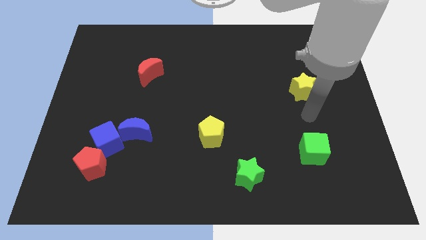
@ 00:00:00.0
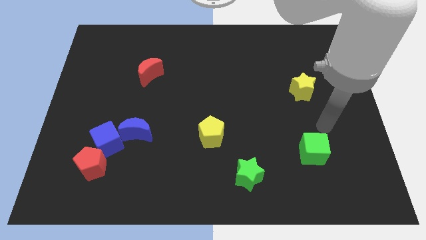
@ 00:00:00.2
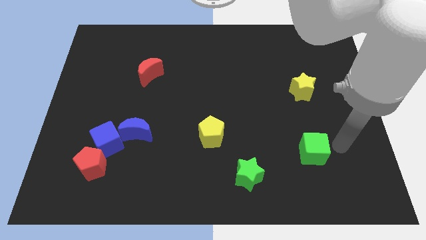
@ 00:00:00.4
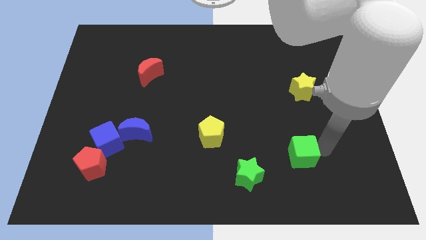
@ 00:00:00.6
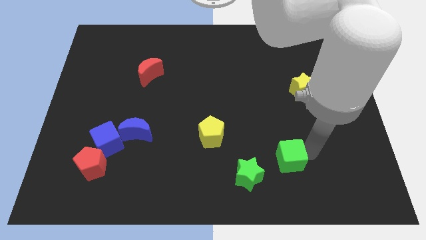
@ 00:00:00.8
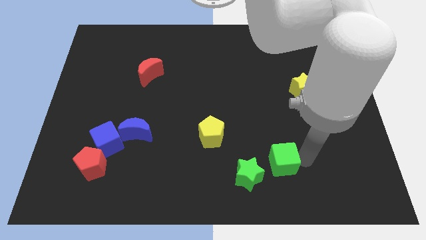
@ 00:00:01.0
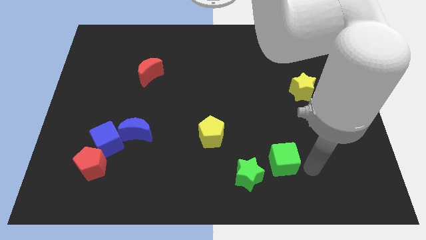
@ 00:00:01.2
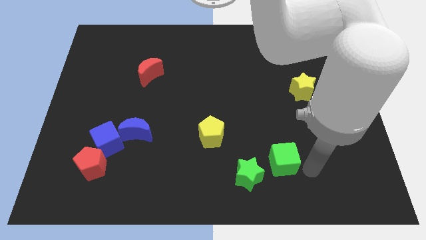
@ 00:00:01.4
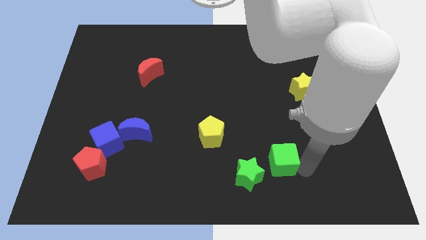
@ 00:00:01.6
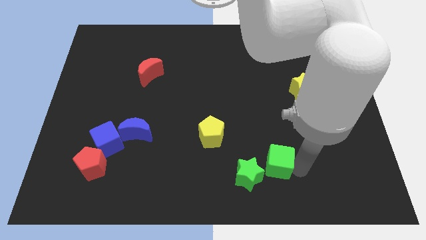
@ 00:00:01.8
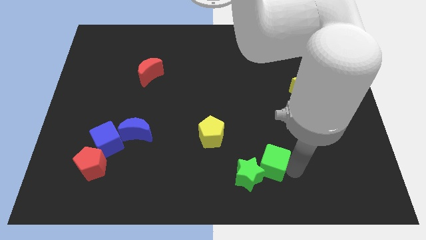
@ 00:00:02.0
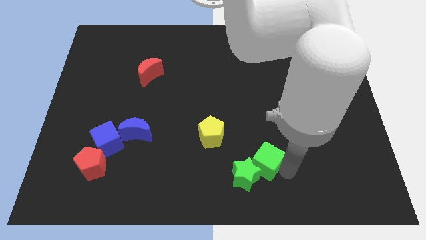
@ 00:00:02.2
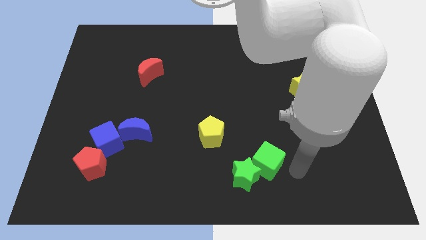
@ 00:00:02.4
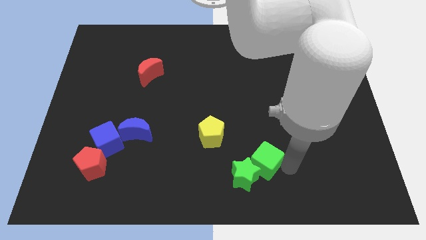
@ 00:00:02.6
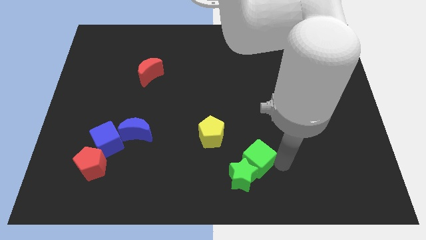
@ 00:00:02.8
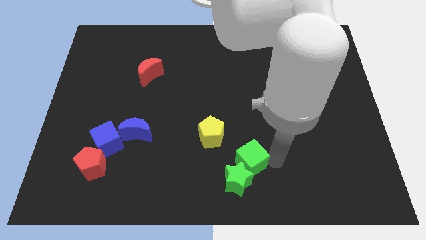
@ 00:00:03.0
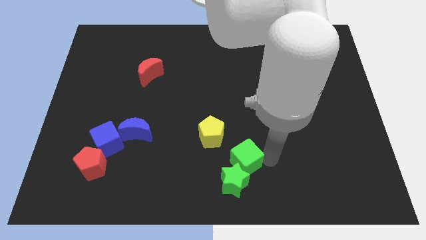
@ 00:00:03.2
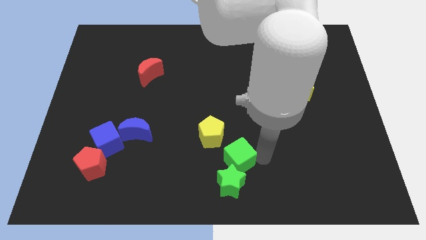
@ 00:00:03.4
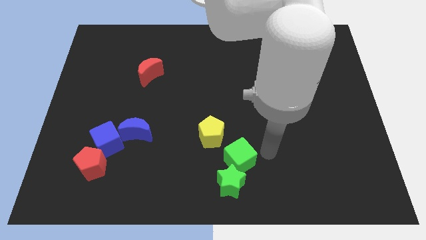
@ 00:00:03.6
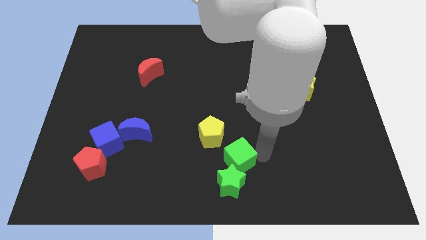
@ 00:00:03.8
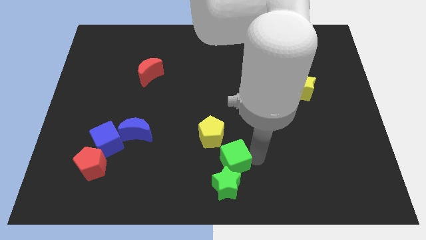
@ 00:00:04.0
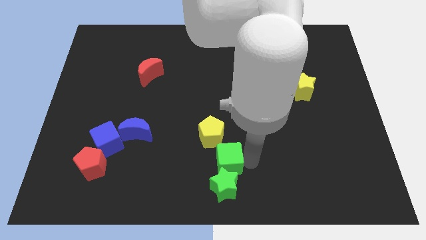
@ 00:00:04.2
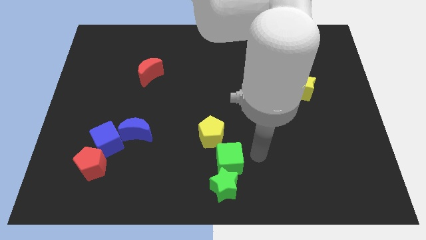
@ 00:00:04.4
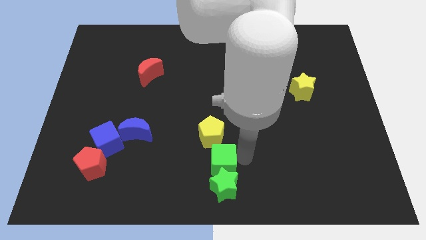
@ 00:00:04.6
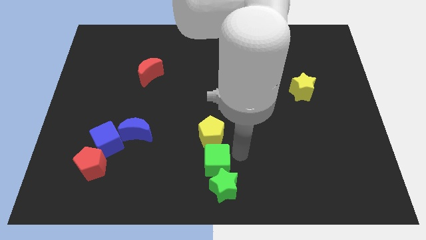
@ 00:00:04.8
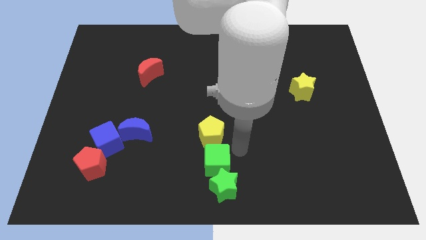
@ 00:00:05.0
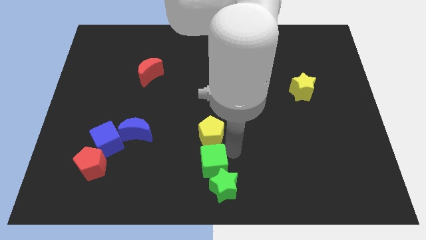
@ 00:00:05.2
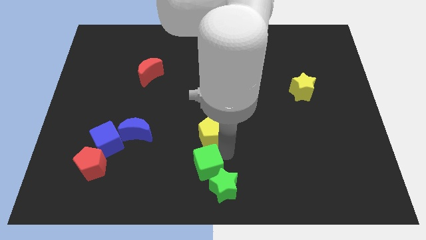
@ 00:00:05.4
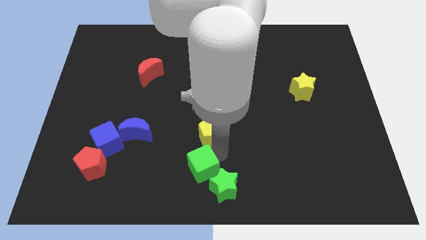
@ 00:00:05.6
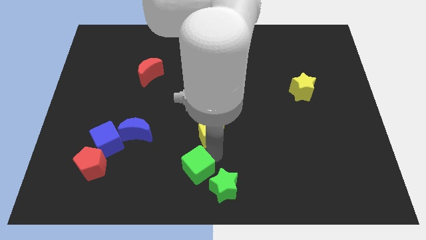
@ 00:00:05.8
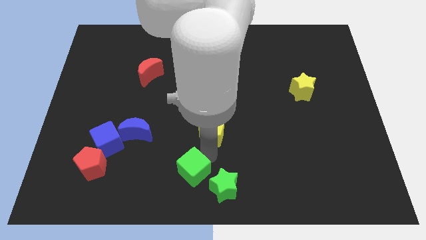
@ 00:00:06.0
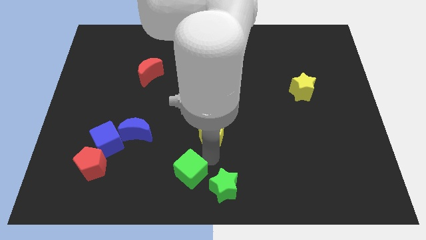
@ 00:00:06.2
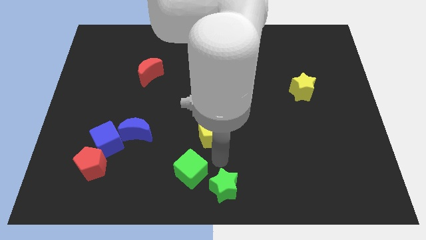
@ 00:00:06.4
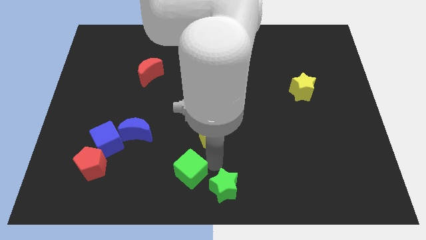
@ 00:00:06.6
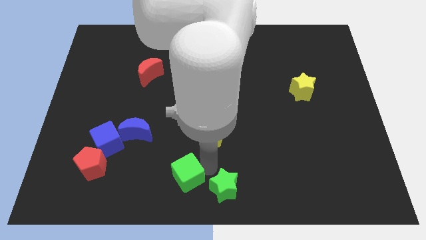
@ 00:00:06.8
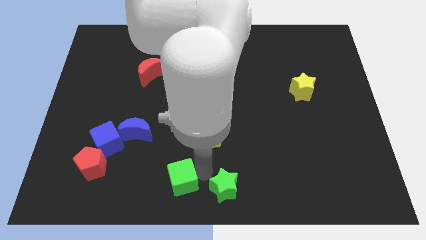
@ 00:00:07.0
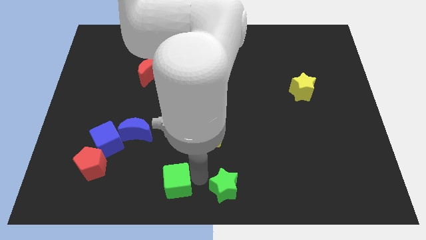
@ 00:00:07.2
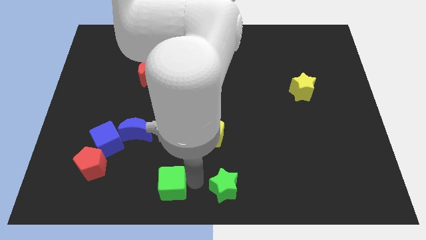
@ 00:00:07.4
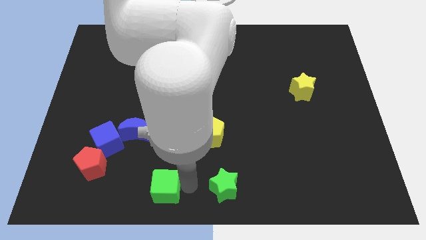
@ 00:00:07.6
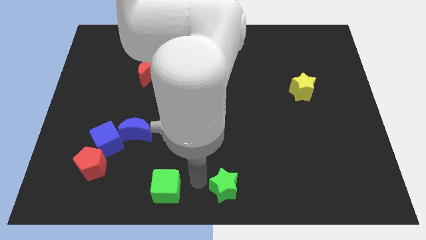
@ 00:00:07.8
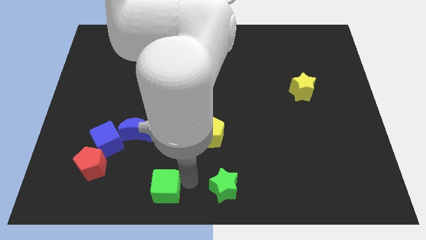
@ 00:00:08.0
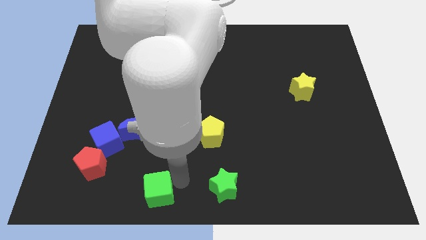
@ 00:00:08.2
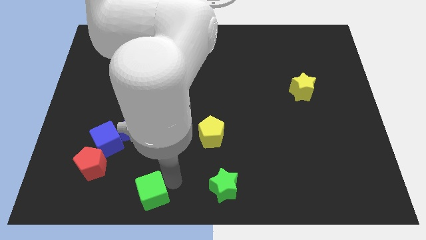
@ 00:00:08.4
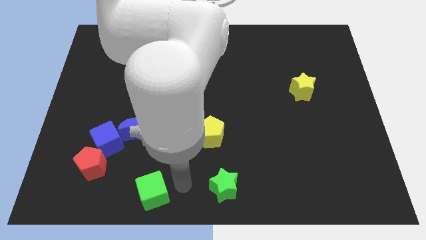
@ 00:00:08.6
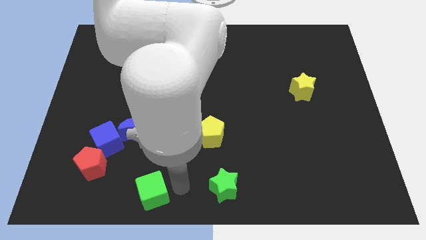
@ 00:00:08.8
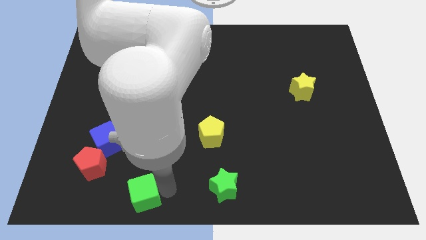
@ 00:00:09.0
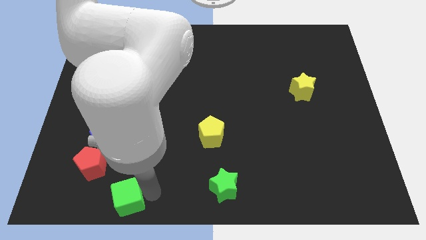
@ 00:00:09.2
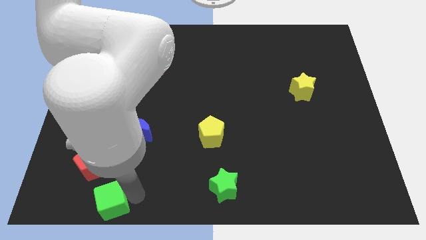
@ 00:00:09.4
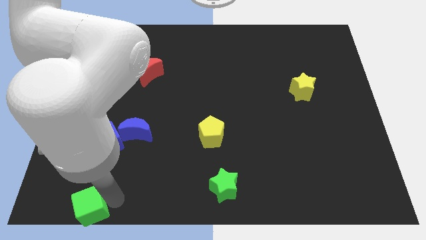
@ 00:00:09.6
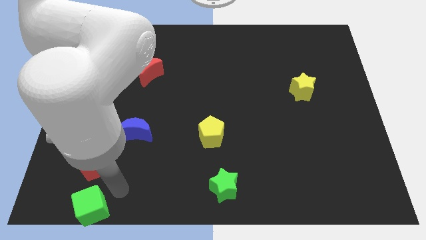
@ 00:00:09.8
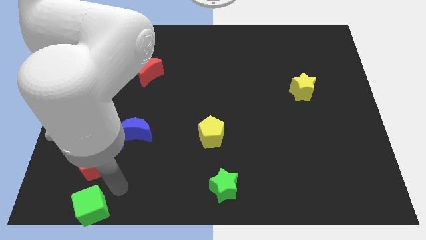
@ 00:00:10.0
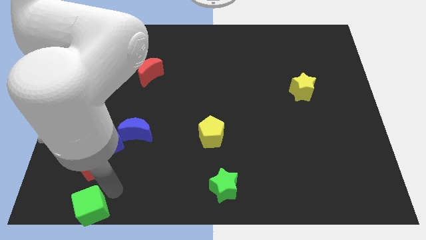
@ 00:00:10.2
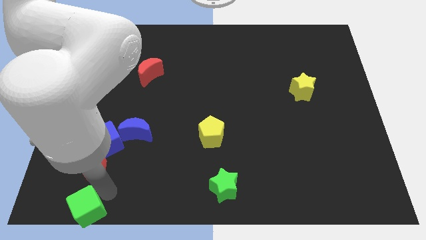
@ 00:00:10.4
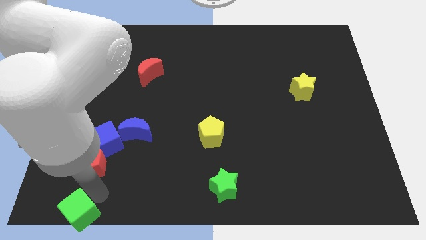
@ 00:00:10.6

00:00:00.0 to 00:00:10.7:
move the green cube to the lower left corner
